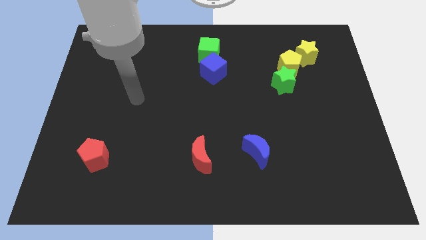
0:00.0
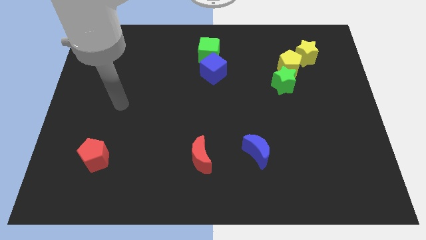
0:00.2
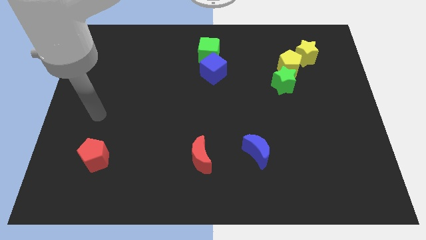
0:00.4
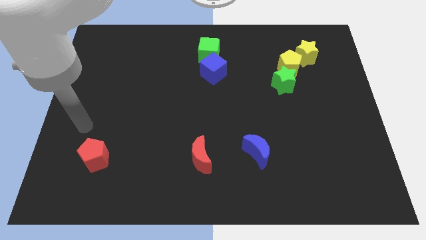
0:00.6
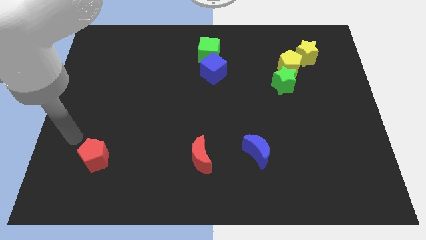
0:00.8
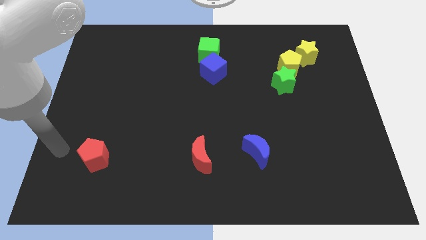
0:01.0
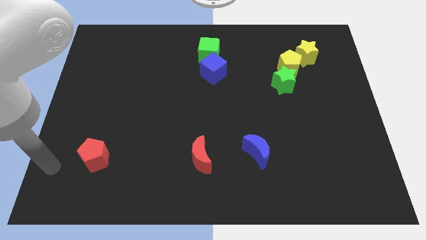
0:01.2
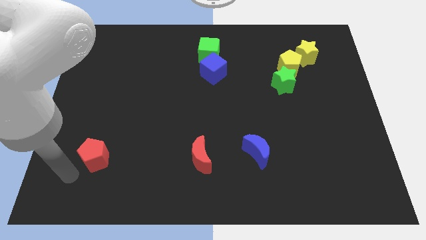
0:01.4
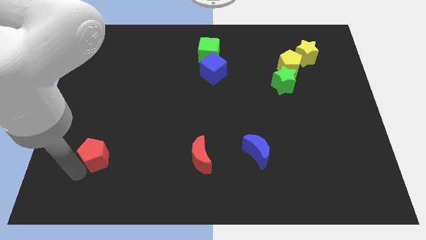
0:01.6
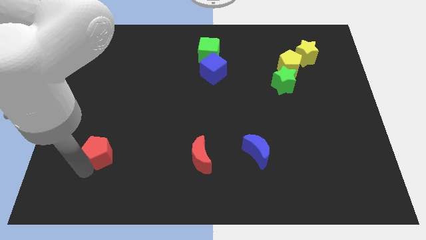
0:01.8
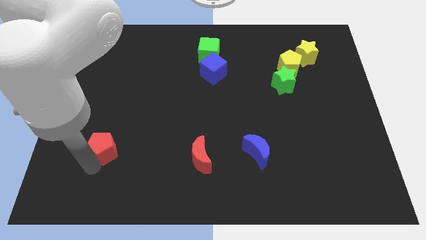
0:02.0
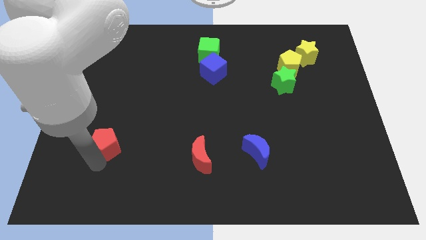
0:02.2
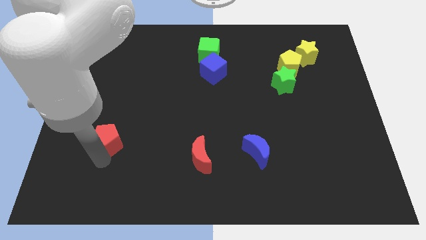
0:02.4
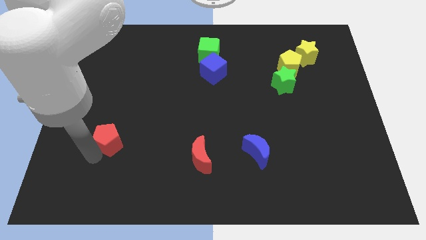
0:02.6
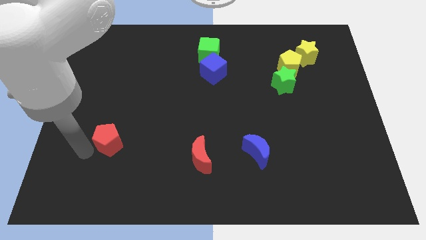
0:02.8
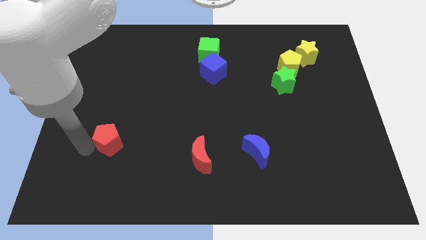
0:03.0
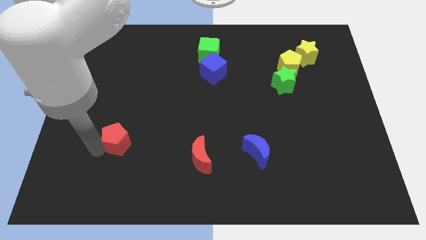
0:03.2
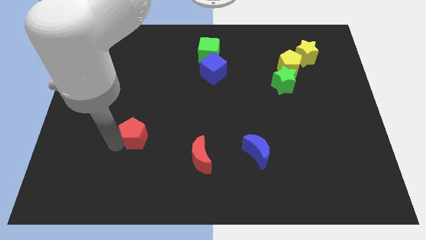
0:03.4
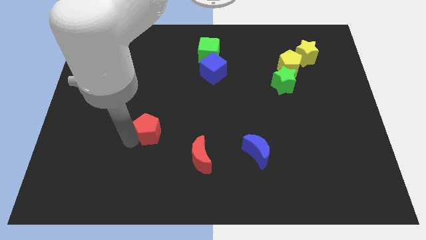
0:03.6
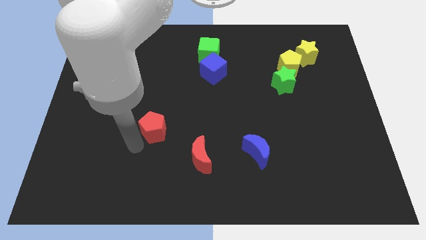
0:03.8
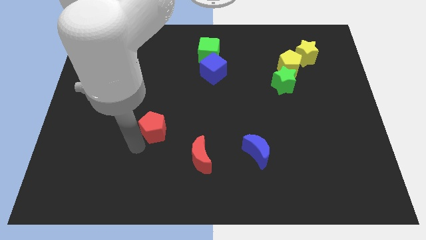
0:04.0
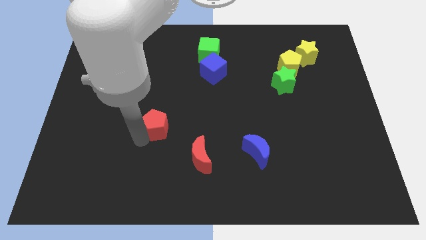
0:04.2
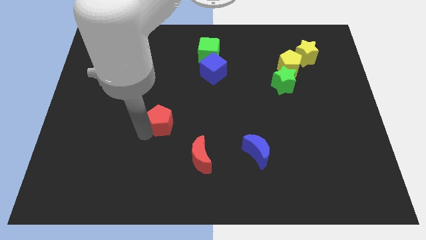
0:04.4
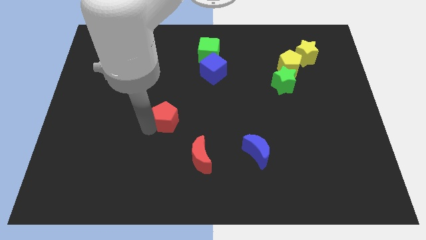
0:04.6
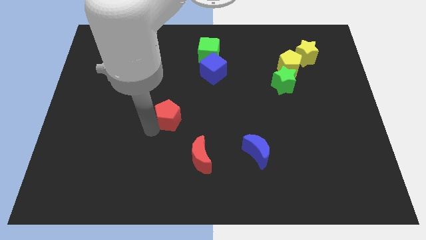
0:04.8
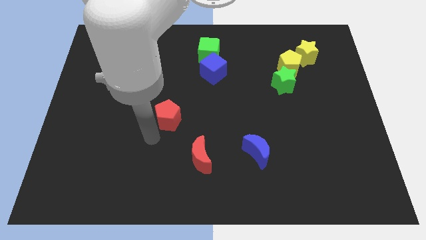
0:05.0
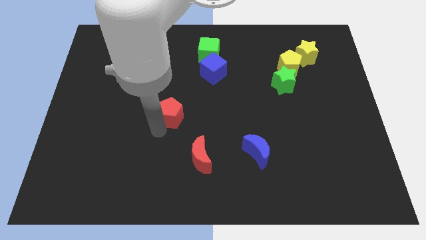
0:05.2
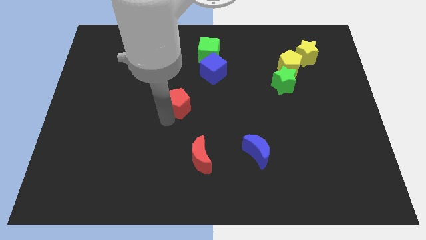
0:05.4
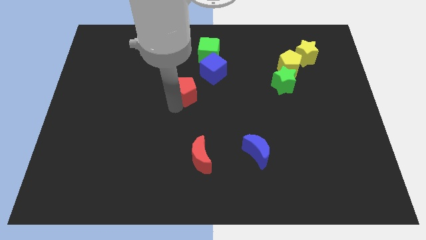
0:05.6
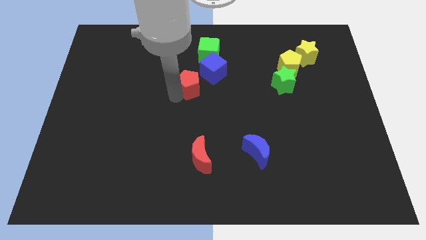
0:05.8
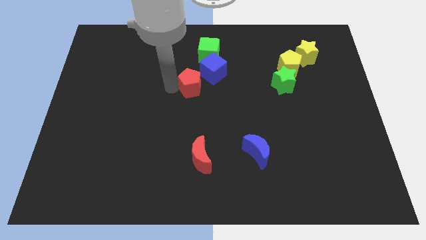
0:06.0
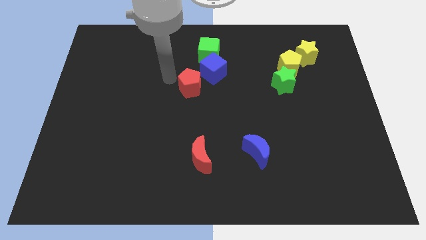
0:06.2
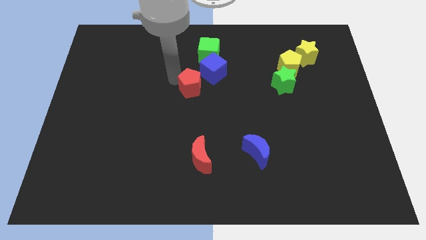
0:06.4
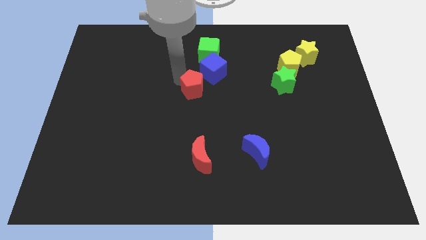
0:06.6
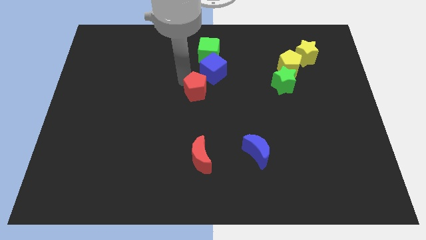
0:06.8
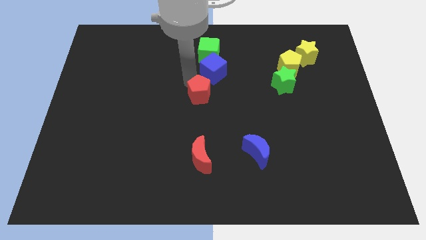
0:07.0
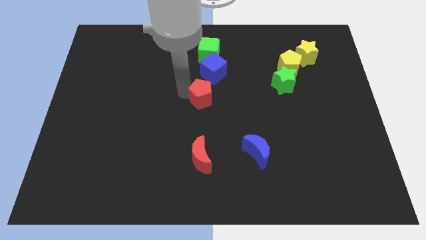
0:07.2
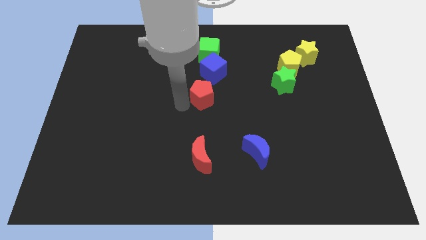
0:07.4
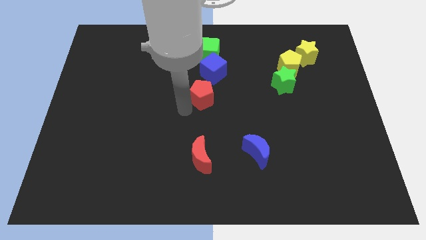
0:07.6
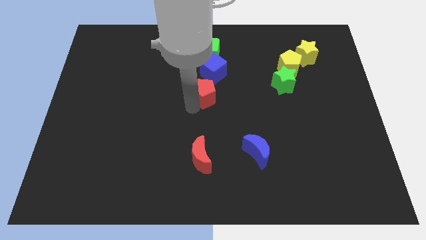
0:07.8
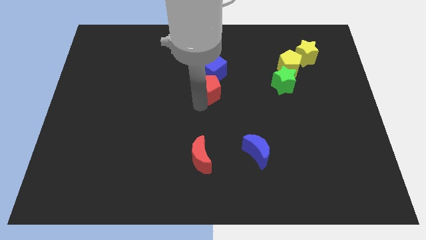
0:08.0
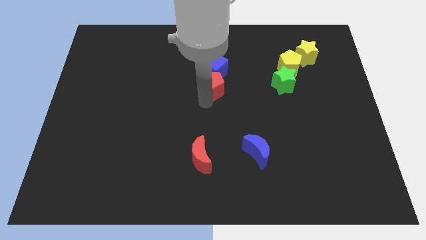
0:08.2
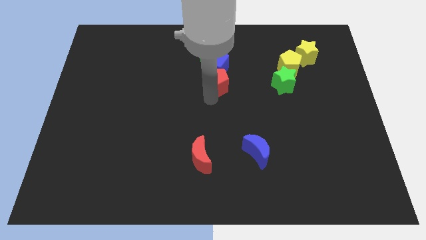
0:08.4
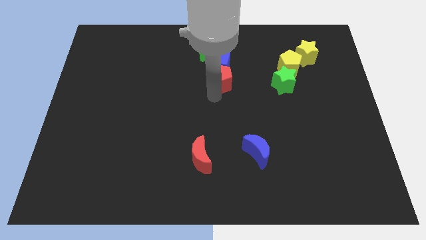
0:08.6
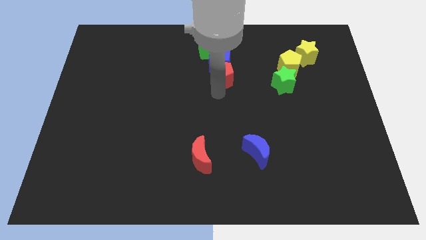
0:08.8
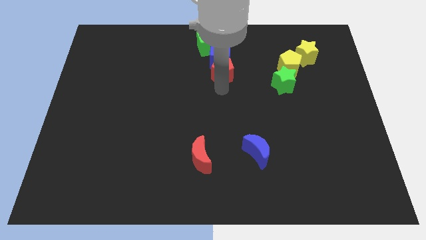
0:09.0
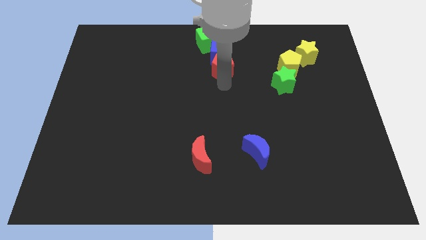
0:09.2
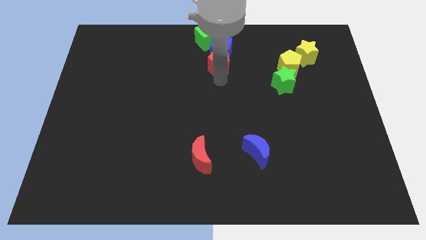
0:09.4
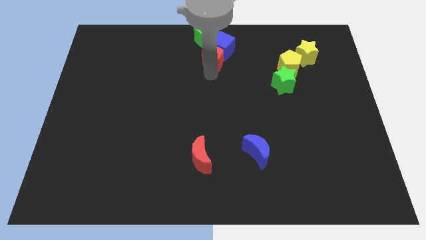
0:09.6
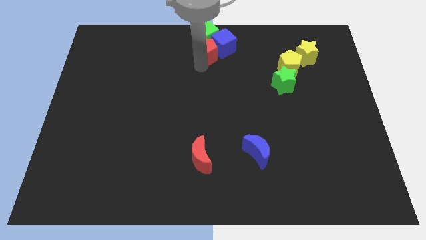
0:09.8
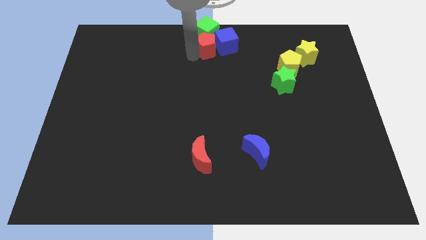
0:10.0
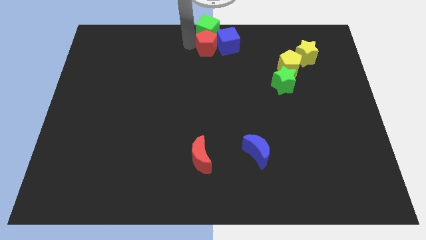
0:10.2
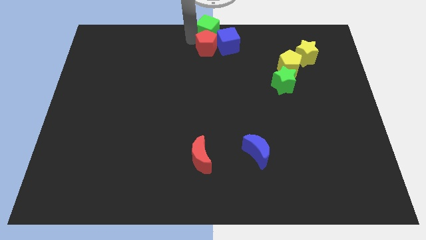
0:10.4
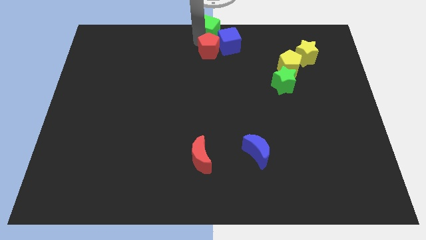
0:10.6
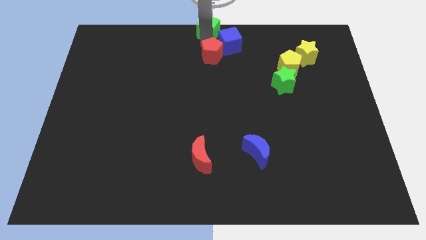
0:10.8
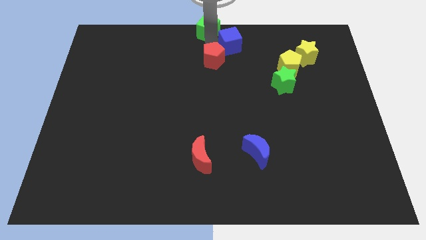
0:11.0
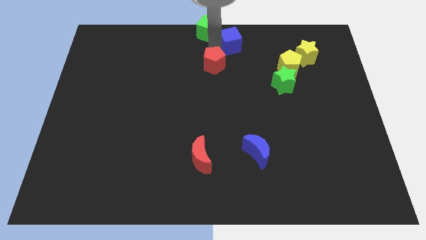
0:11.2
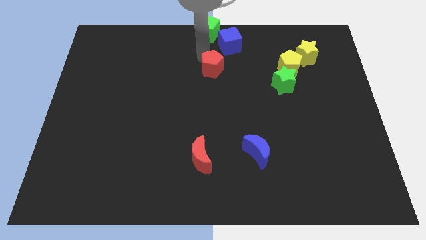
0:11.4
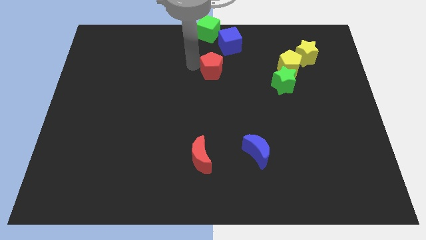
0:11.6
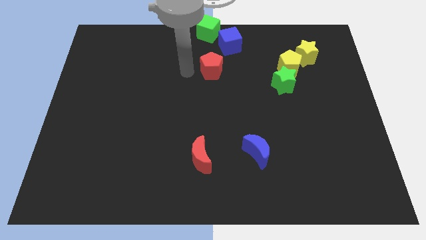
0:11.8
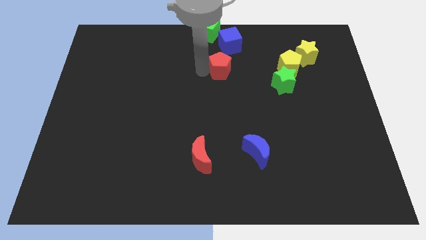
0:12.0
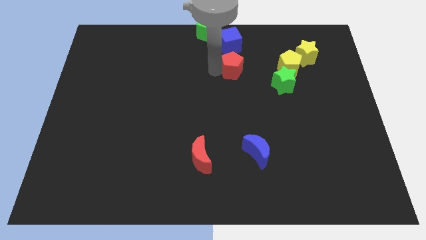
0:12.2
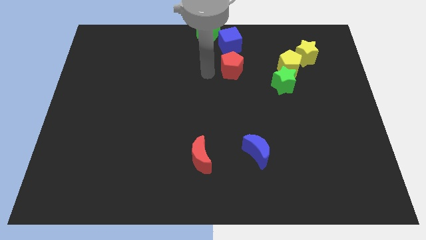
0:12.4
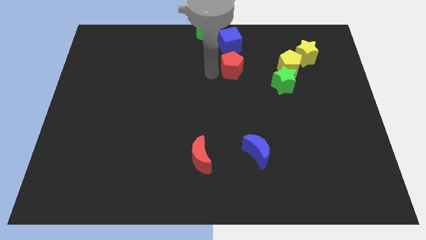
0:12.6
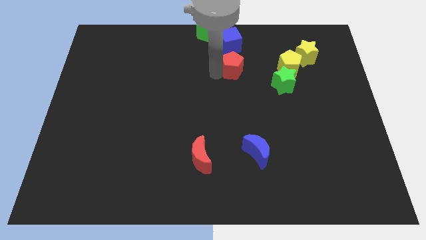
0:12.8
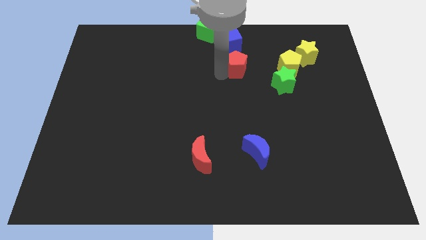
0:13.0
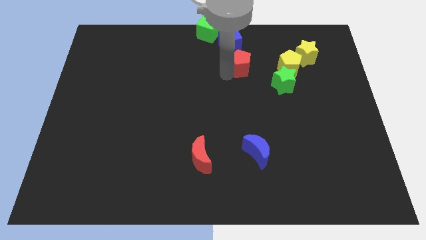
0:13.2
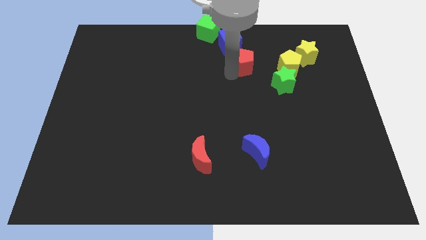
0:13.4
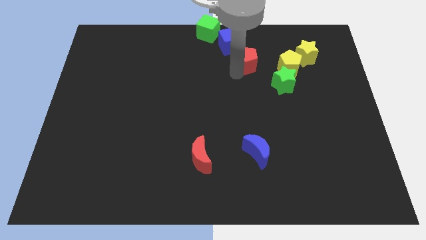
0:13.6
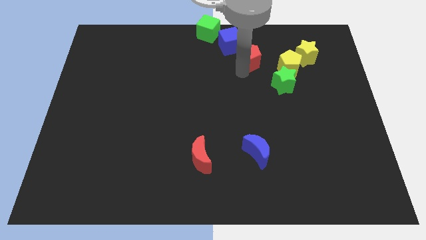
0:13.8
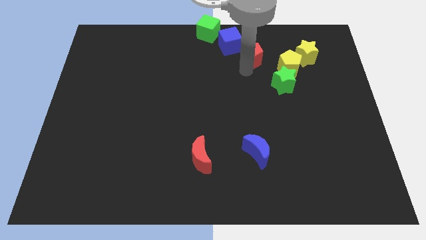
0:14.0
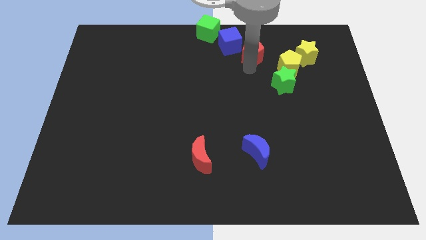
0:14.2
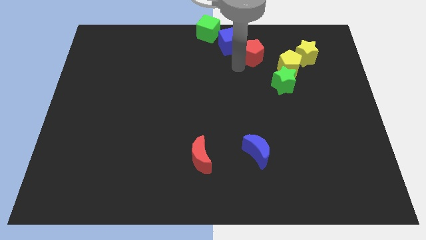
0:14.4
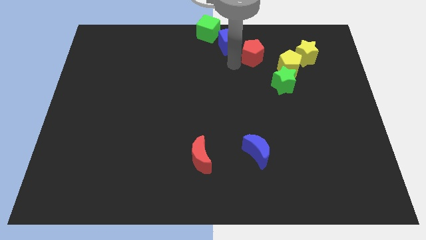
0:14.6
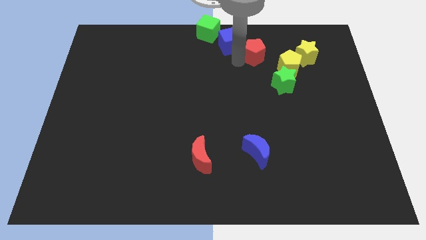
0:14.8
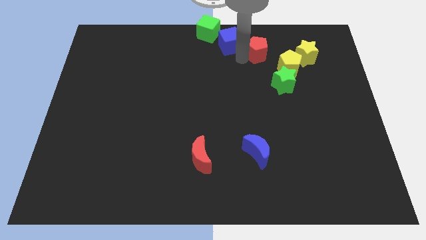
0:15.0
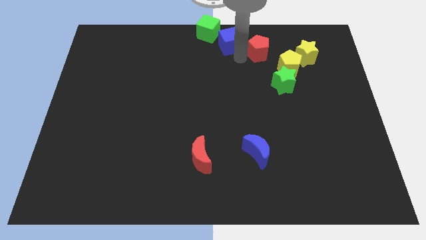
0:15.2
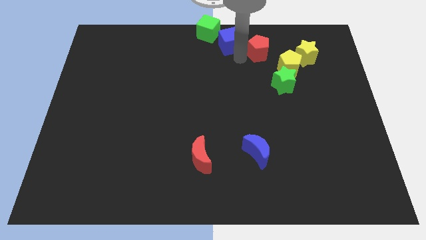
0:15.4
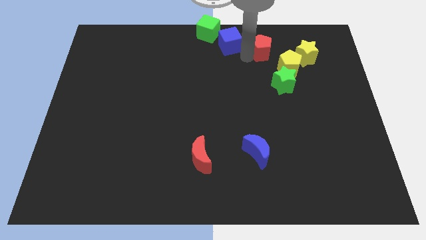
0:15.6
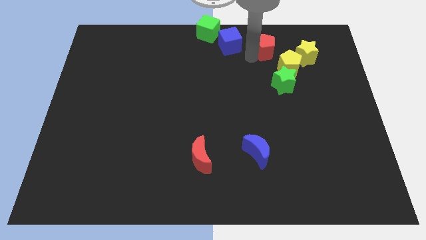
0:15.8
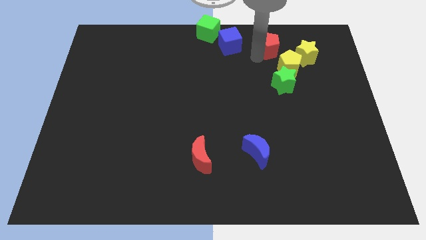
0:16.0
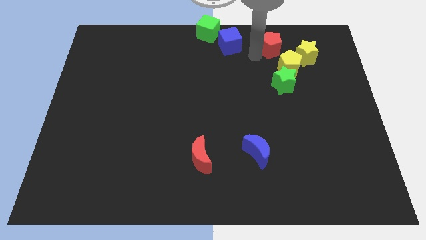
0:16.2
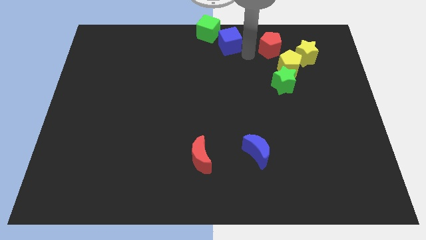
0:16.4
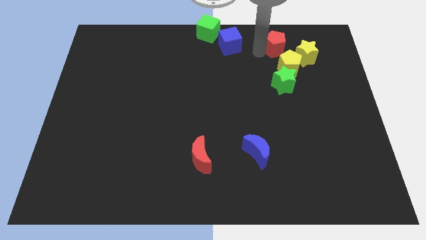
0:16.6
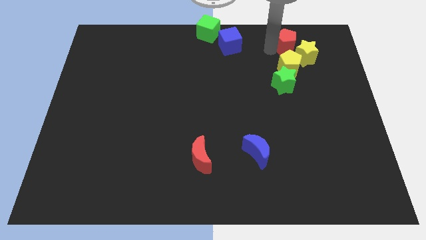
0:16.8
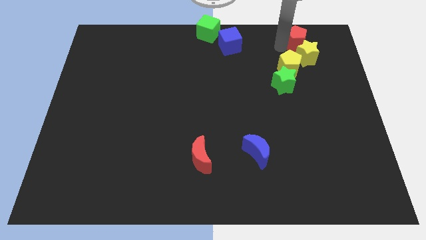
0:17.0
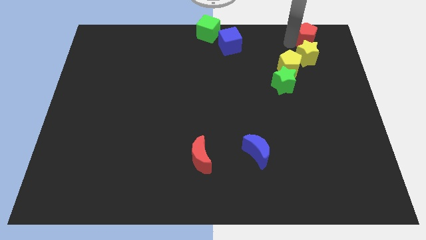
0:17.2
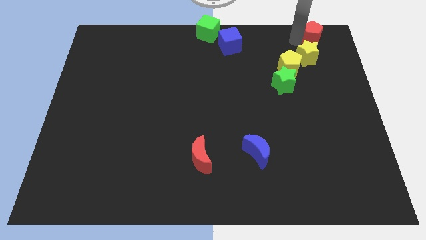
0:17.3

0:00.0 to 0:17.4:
move the red pentagon to the upper right corner
